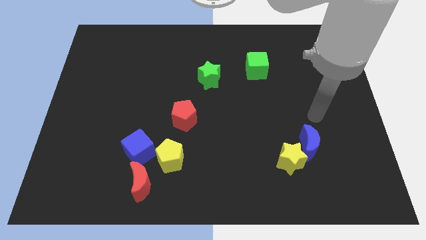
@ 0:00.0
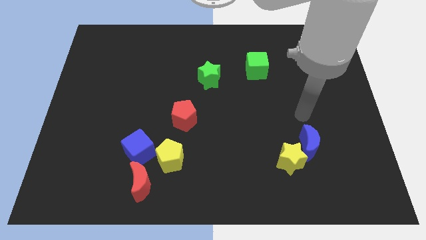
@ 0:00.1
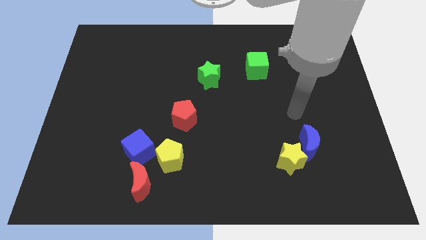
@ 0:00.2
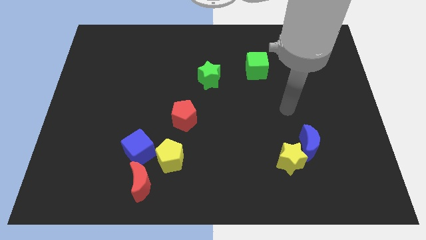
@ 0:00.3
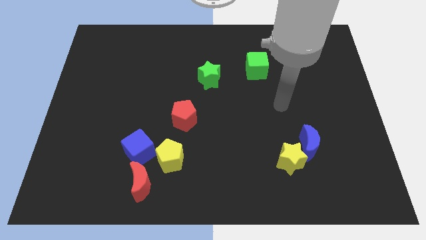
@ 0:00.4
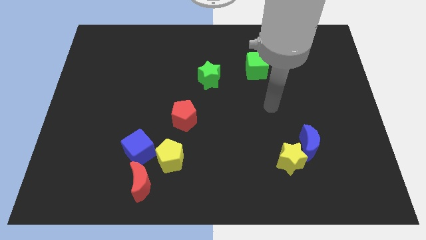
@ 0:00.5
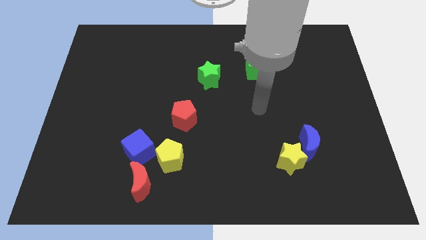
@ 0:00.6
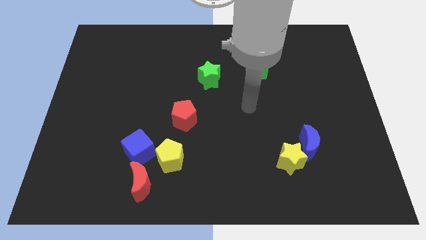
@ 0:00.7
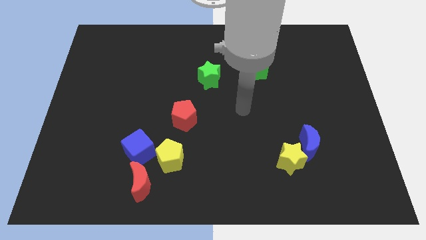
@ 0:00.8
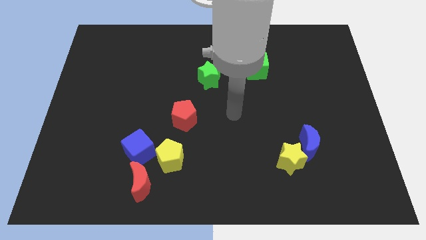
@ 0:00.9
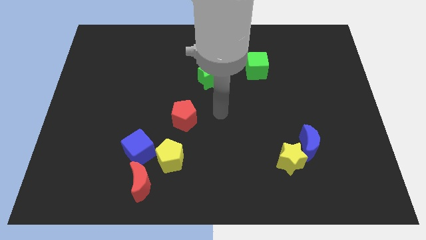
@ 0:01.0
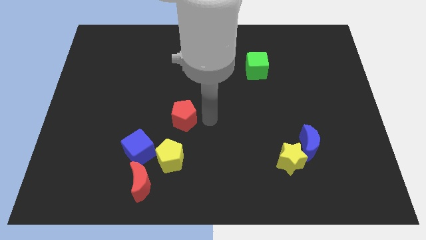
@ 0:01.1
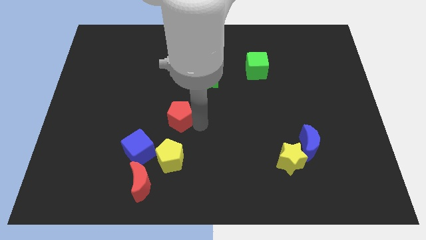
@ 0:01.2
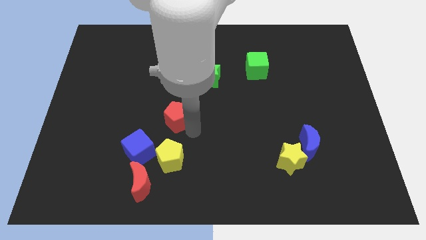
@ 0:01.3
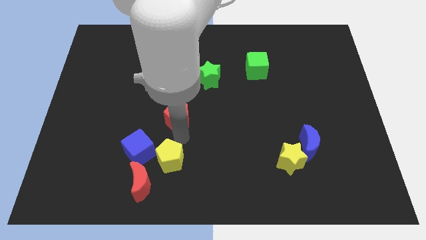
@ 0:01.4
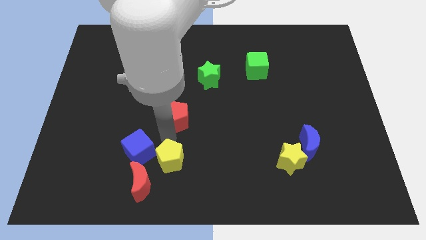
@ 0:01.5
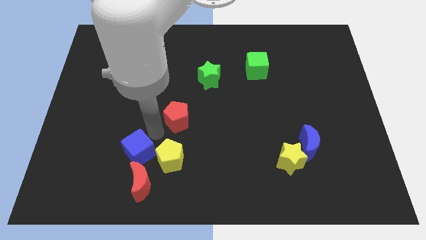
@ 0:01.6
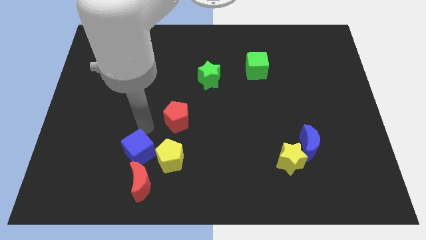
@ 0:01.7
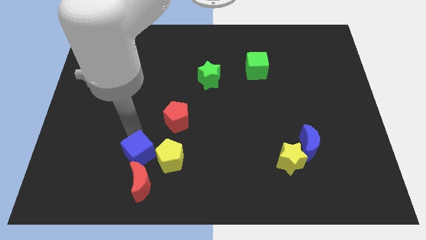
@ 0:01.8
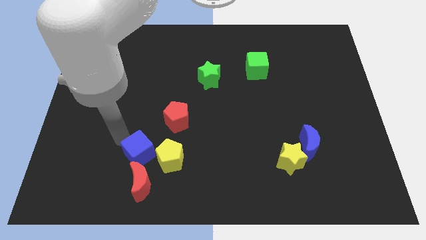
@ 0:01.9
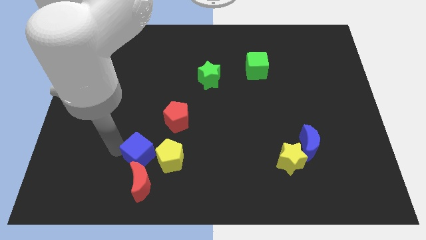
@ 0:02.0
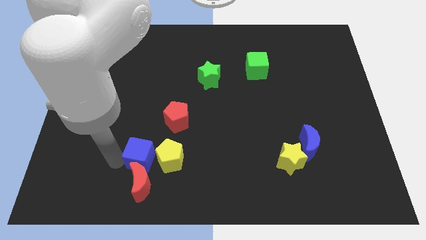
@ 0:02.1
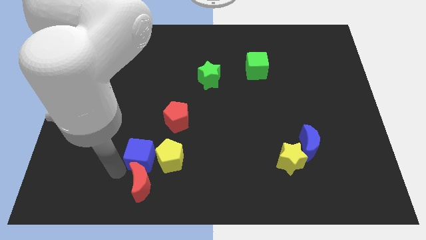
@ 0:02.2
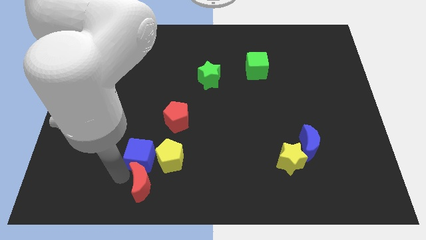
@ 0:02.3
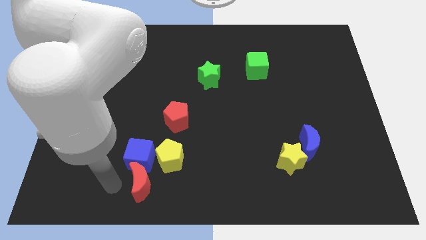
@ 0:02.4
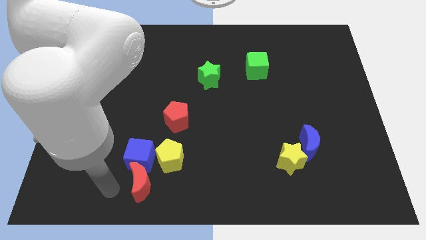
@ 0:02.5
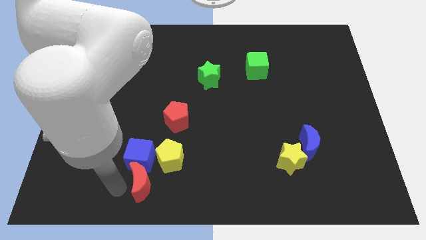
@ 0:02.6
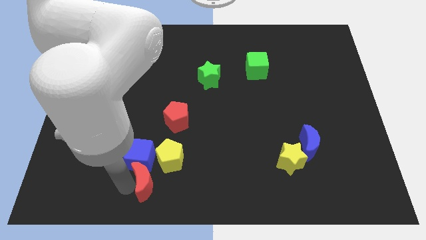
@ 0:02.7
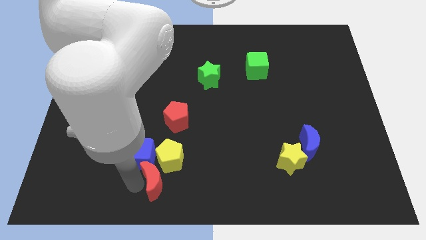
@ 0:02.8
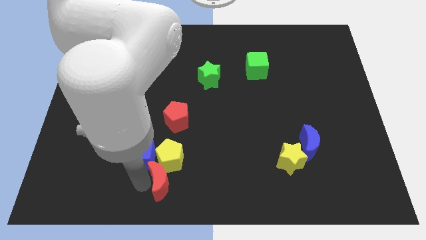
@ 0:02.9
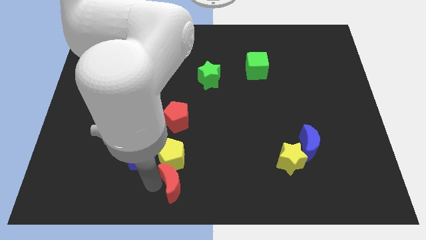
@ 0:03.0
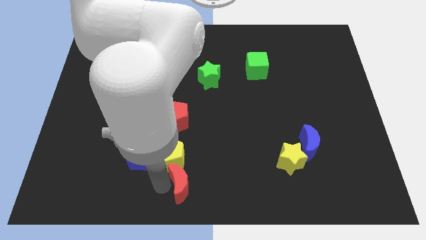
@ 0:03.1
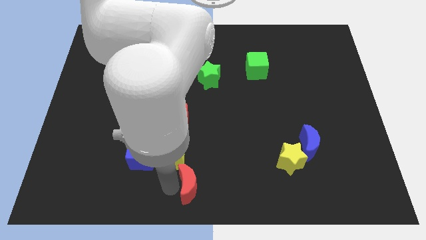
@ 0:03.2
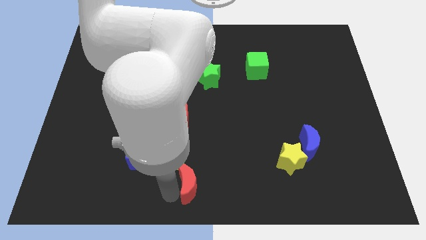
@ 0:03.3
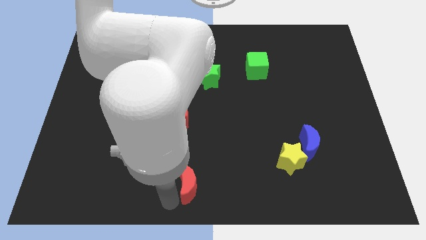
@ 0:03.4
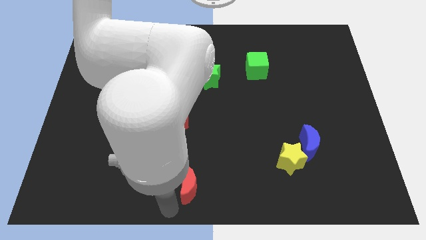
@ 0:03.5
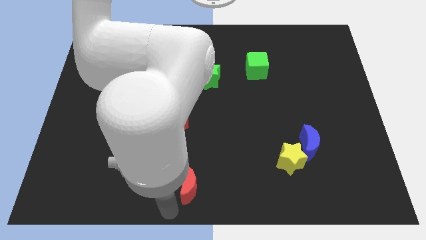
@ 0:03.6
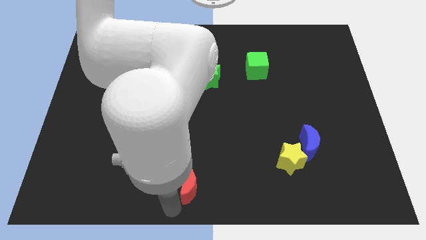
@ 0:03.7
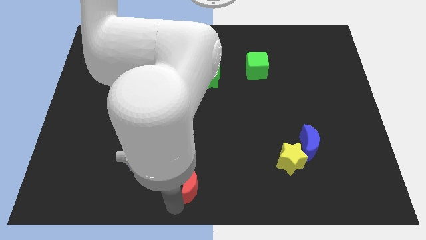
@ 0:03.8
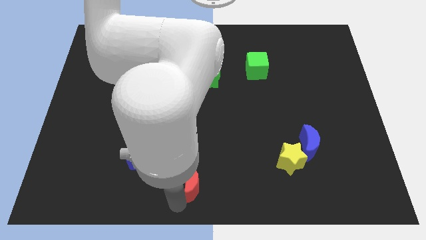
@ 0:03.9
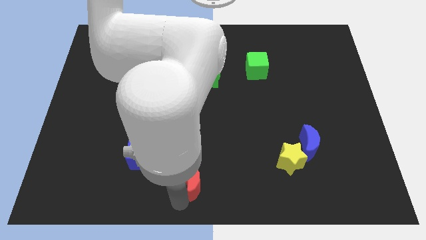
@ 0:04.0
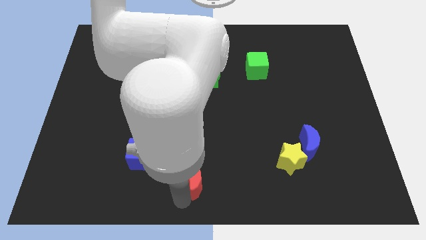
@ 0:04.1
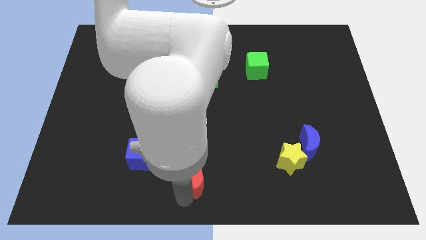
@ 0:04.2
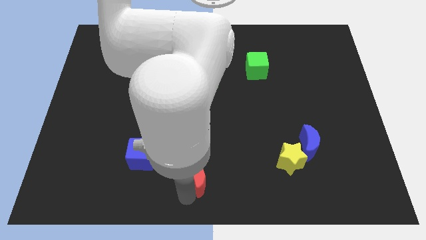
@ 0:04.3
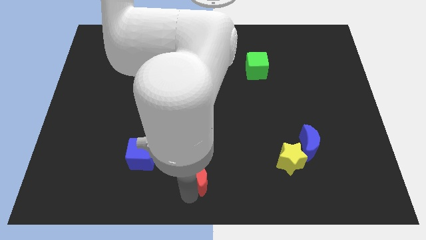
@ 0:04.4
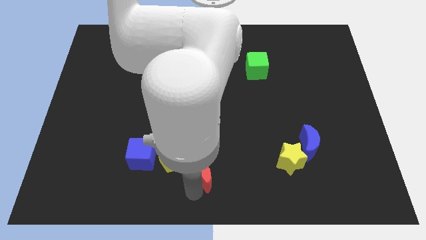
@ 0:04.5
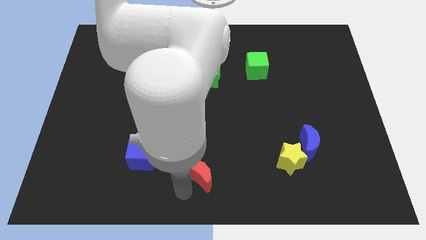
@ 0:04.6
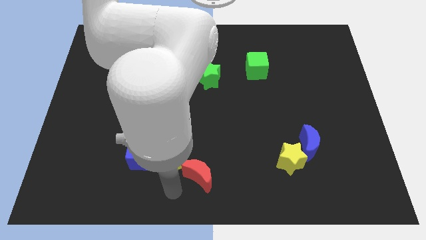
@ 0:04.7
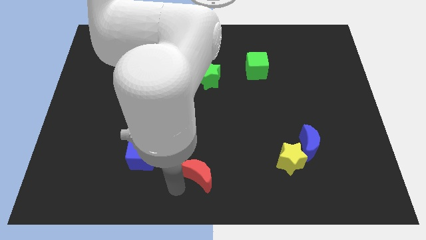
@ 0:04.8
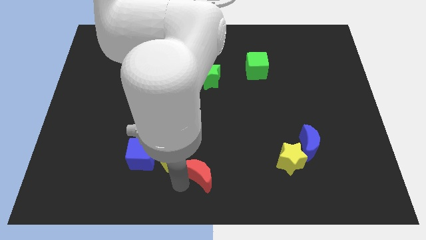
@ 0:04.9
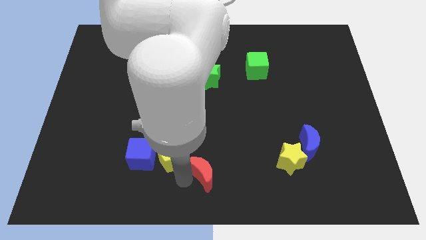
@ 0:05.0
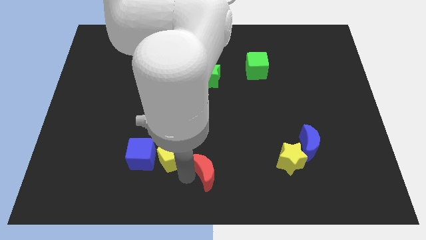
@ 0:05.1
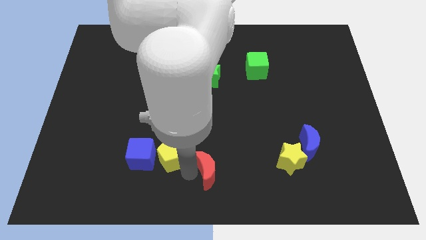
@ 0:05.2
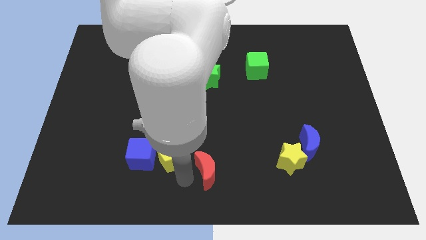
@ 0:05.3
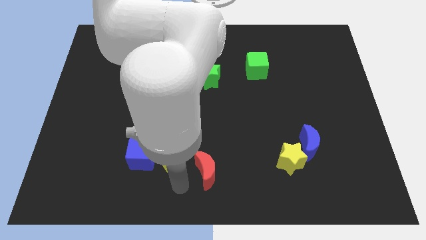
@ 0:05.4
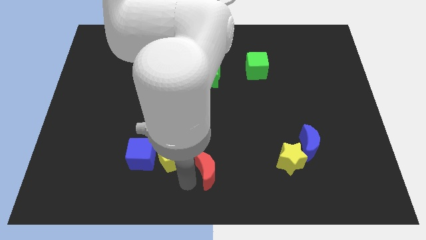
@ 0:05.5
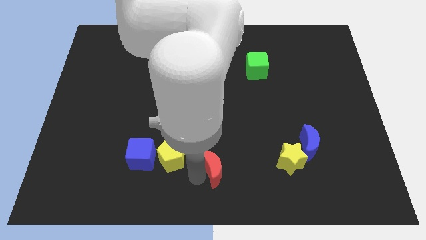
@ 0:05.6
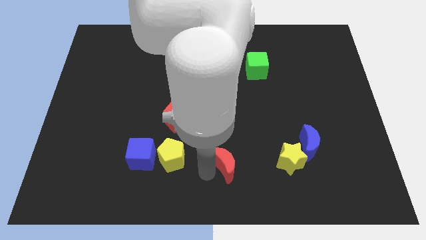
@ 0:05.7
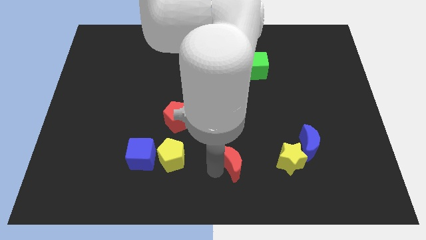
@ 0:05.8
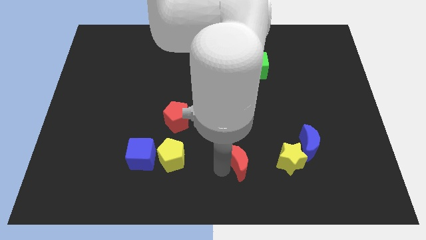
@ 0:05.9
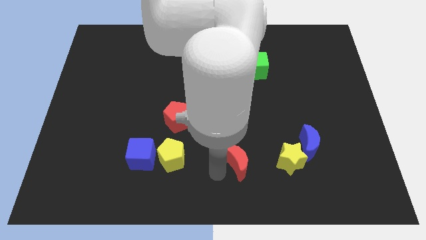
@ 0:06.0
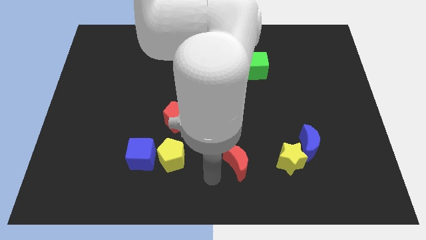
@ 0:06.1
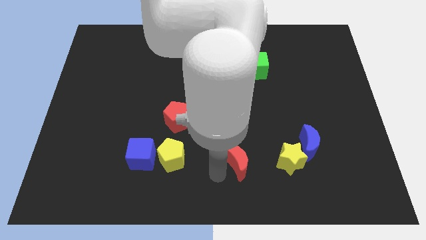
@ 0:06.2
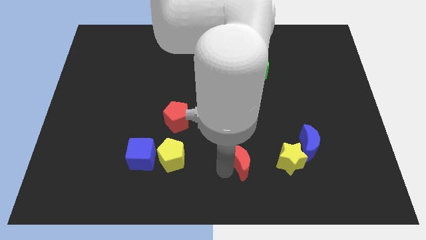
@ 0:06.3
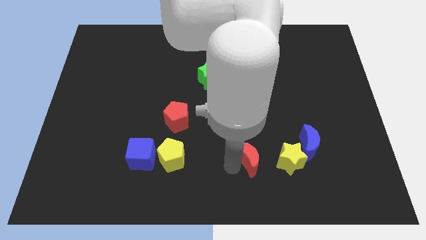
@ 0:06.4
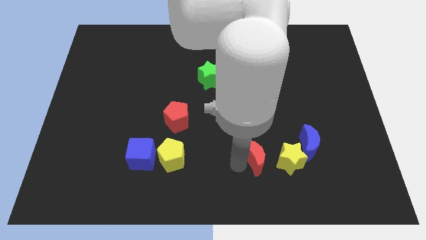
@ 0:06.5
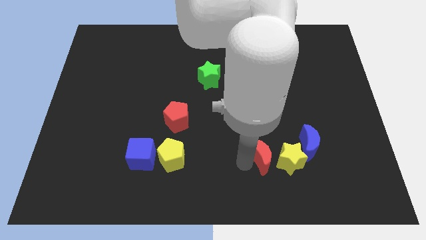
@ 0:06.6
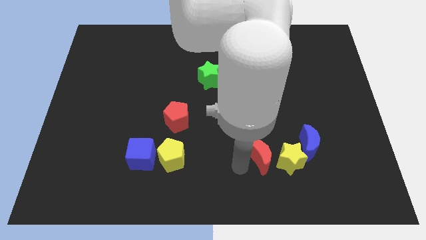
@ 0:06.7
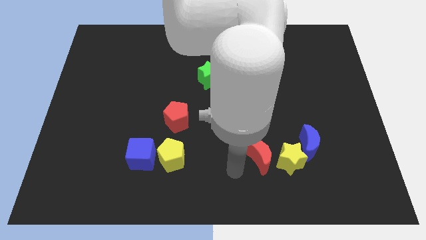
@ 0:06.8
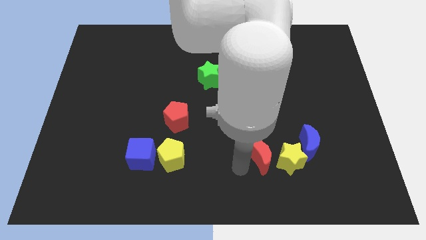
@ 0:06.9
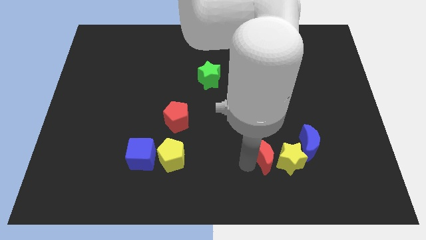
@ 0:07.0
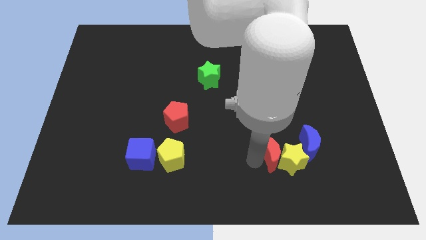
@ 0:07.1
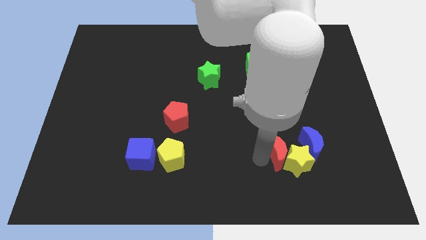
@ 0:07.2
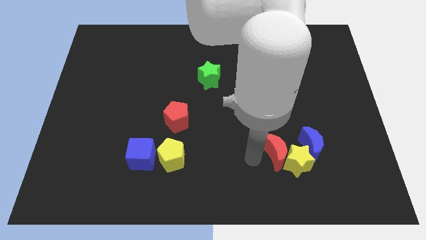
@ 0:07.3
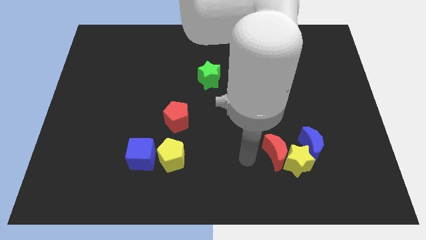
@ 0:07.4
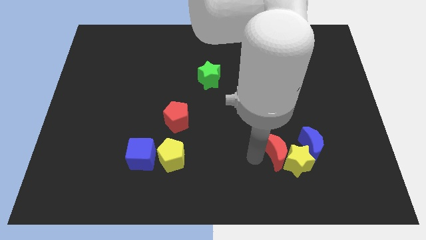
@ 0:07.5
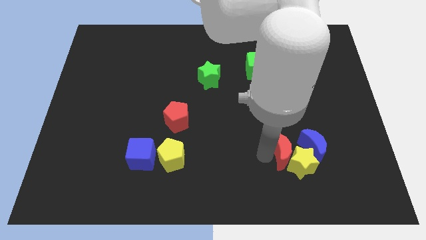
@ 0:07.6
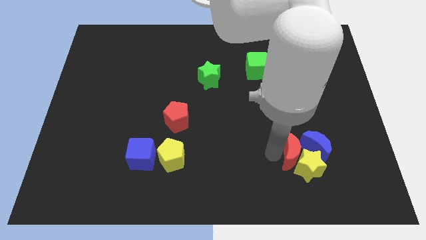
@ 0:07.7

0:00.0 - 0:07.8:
slide the red moon next to the blue moon
